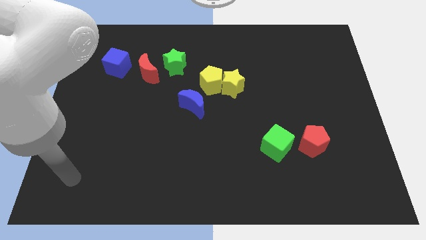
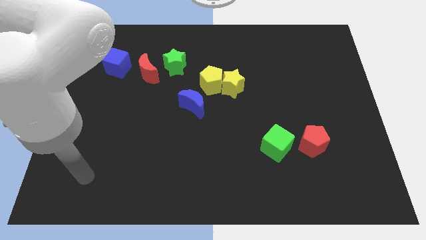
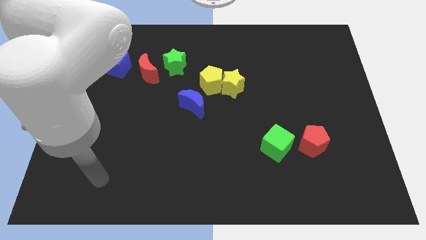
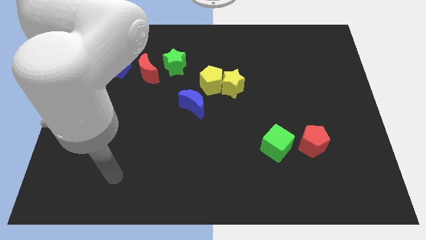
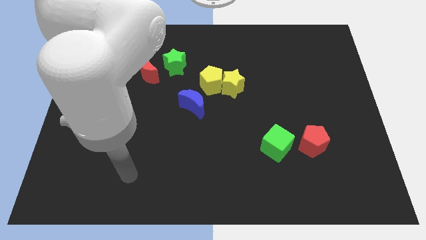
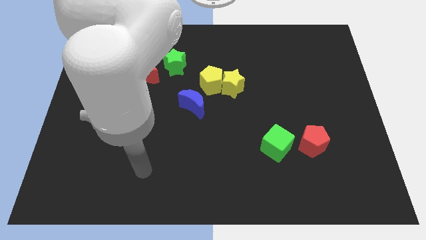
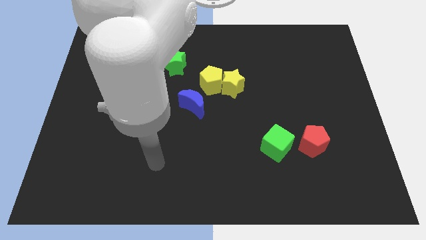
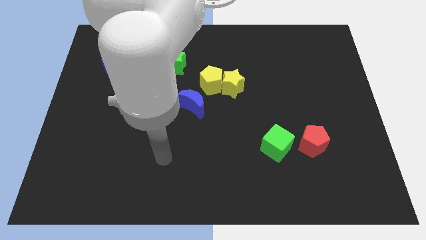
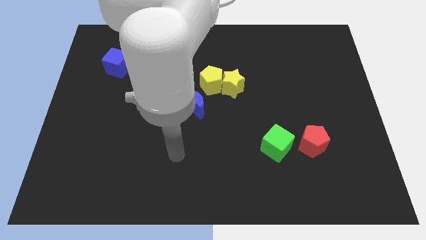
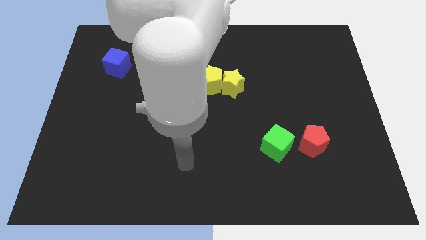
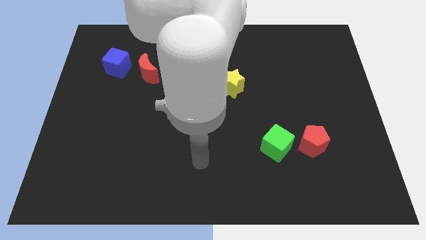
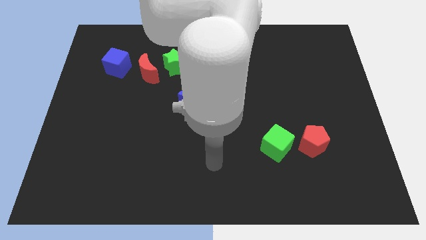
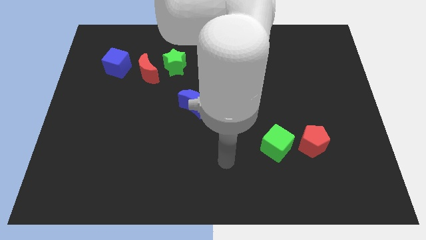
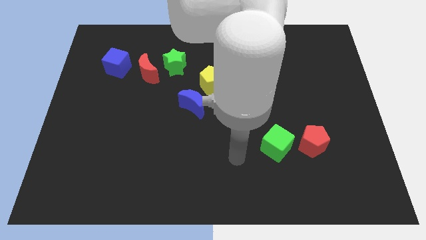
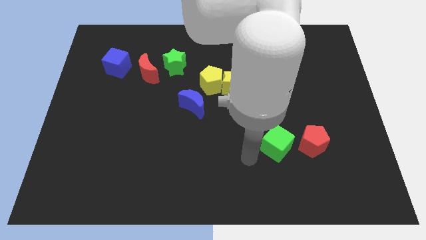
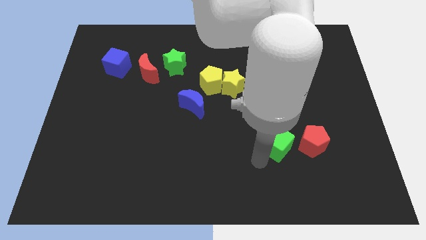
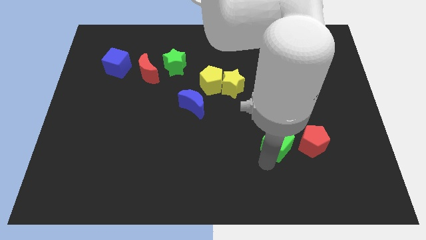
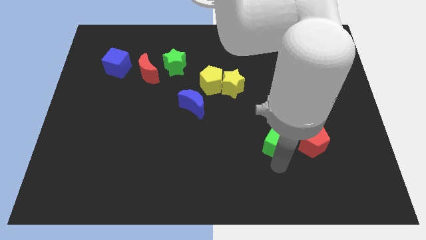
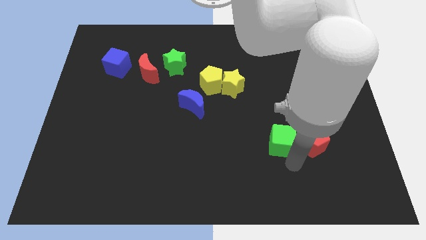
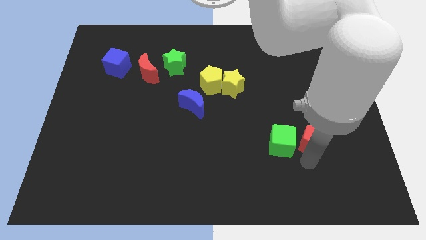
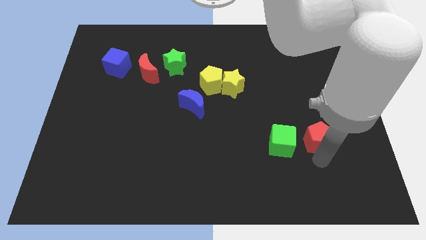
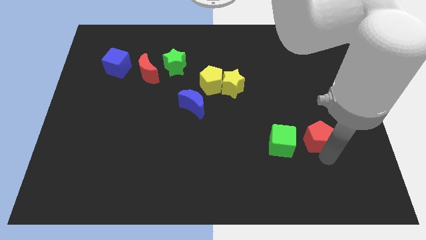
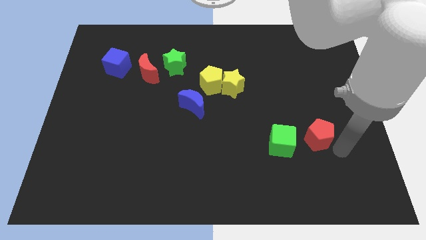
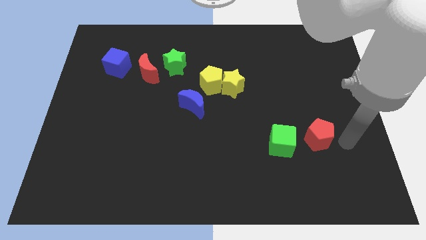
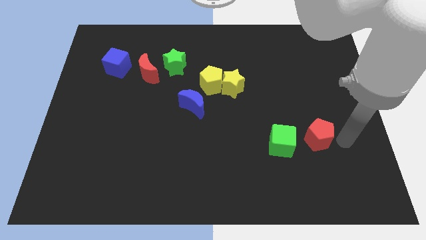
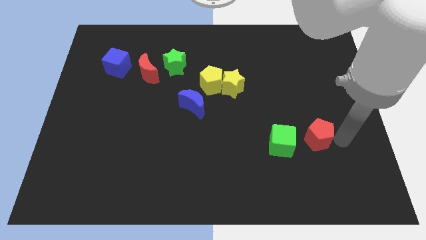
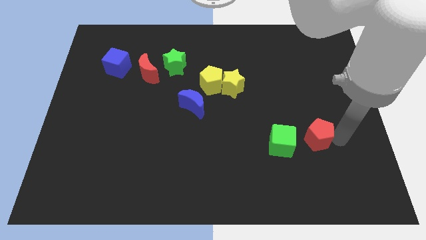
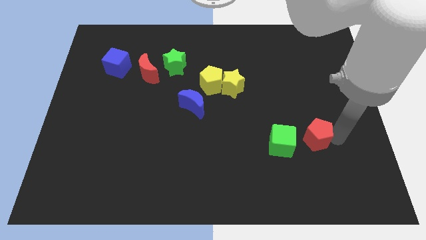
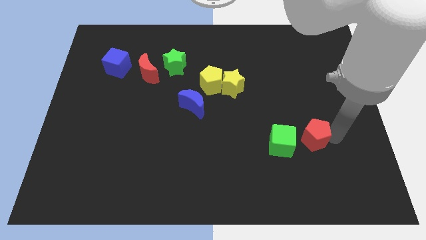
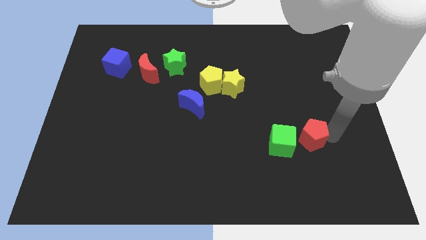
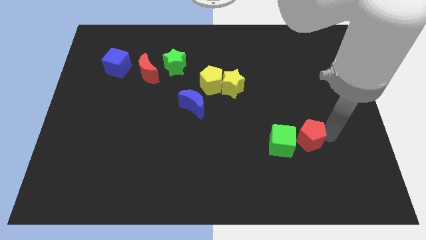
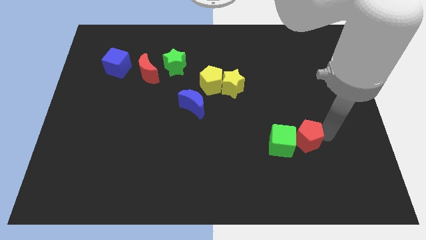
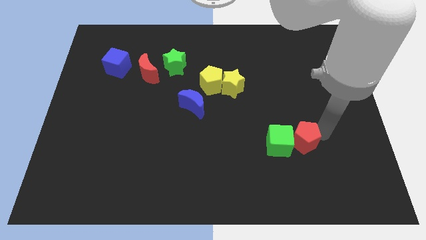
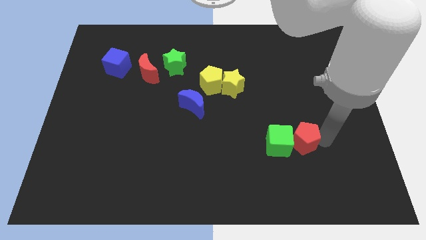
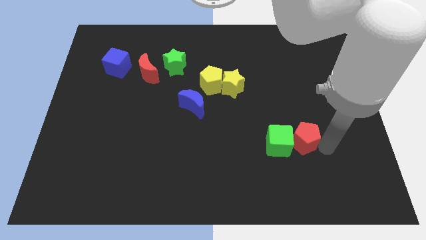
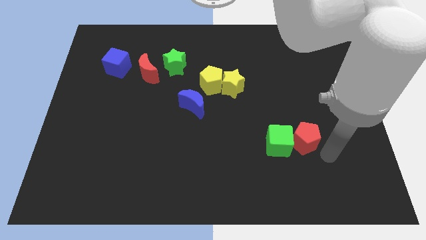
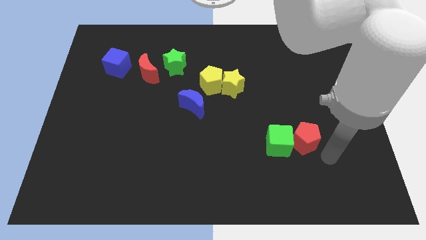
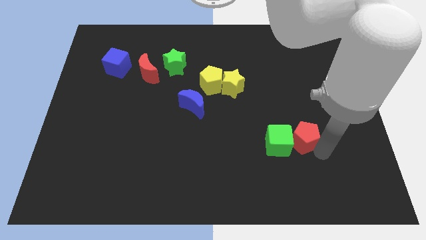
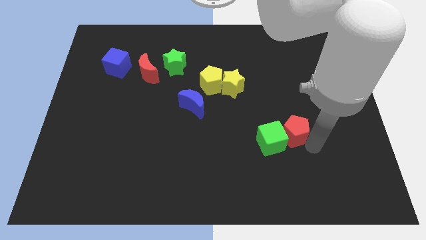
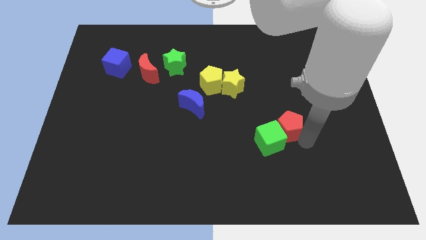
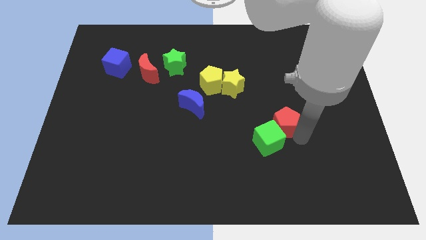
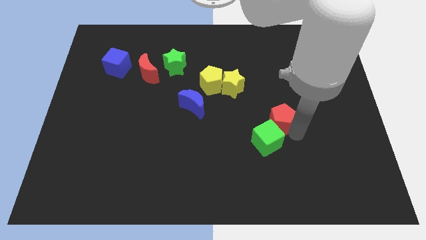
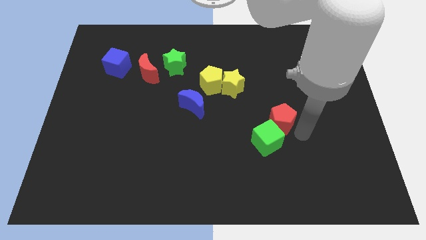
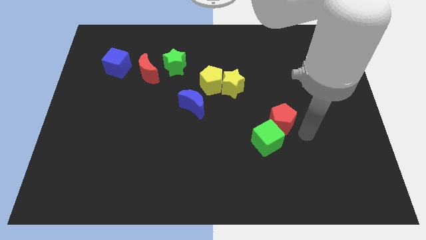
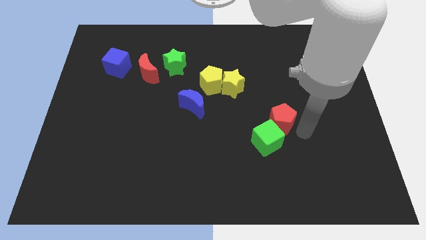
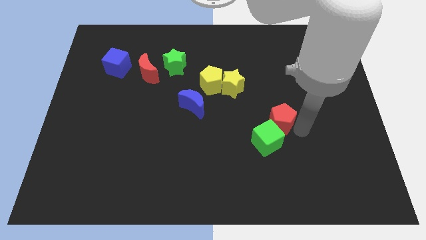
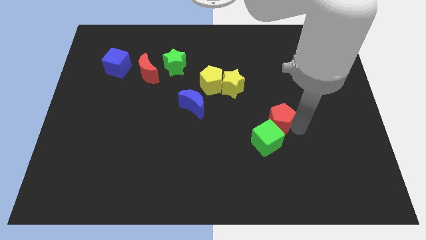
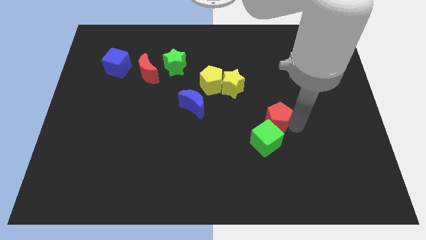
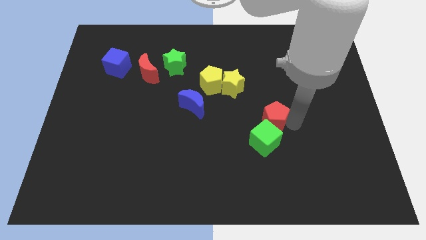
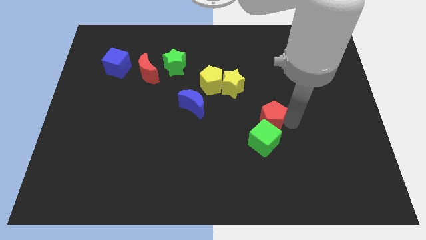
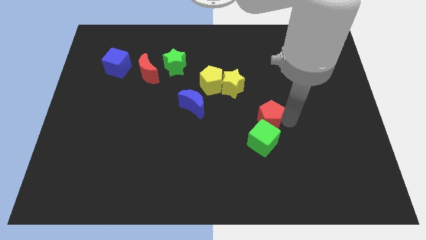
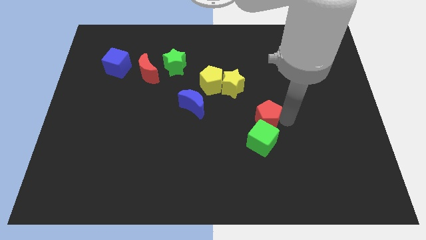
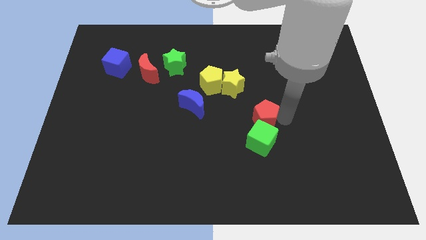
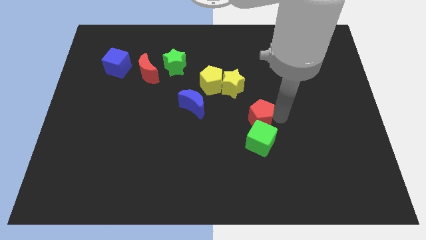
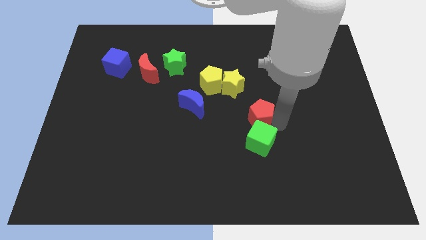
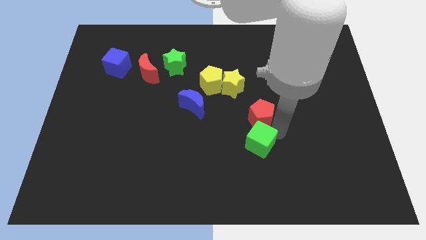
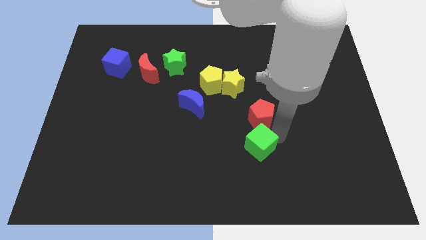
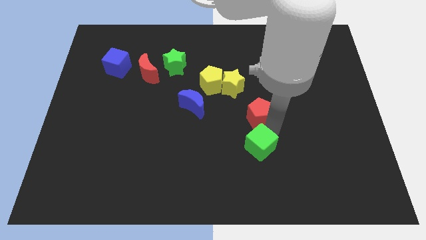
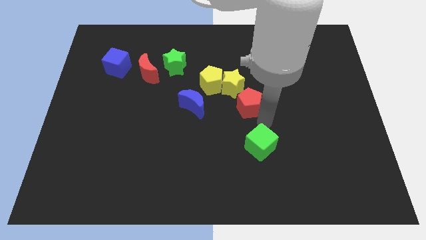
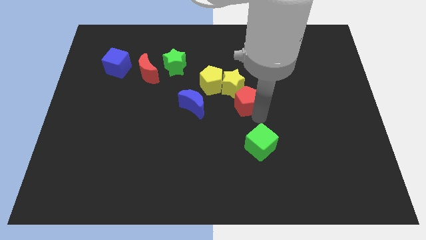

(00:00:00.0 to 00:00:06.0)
push the red pentagon close to the yellow star

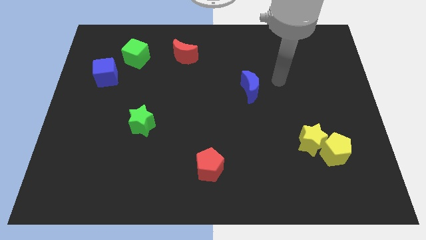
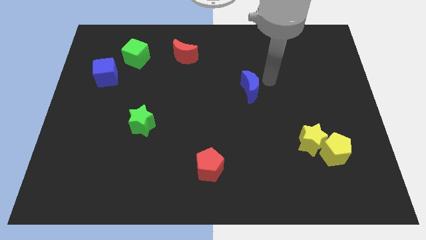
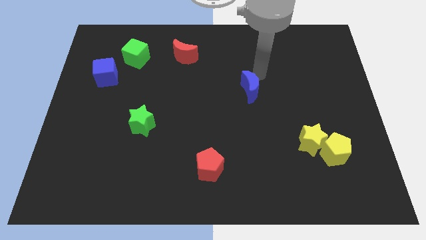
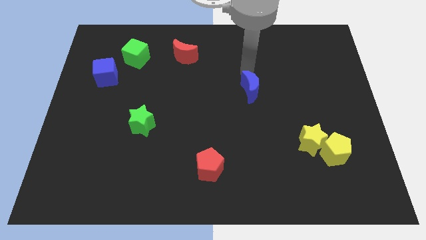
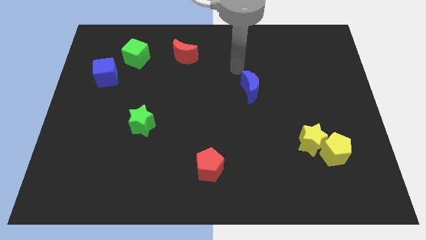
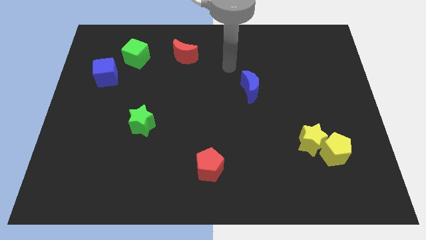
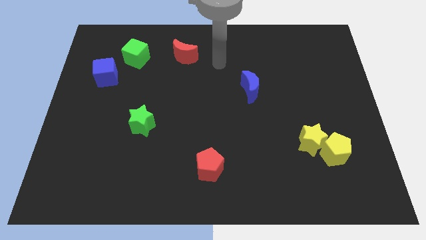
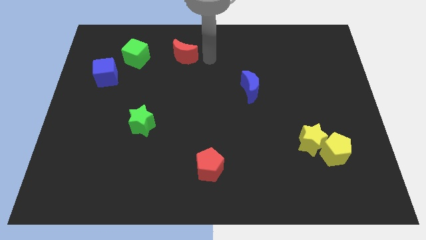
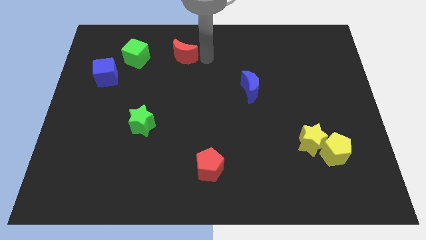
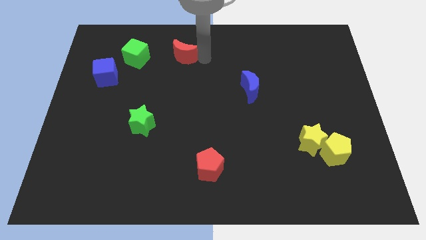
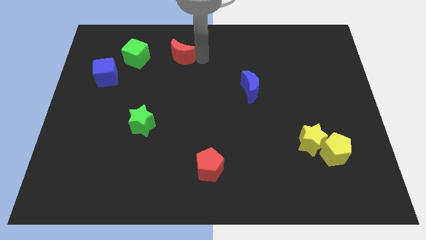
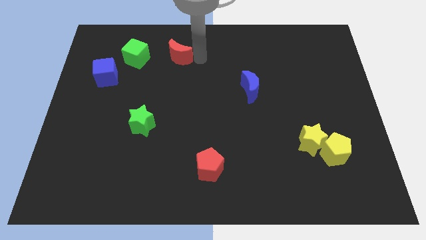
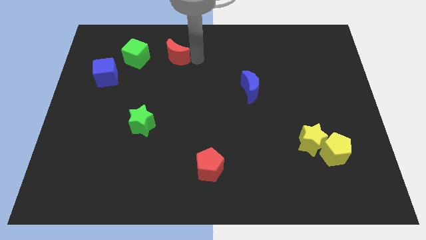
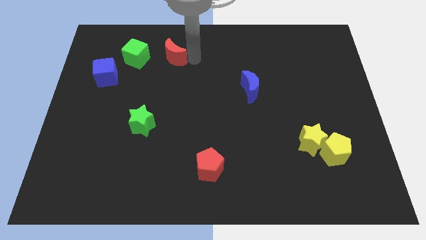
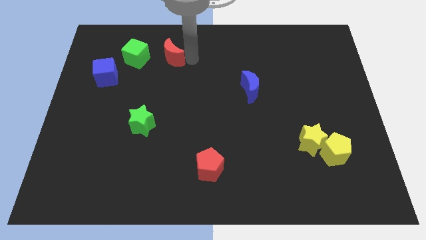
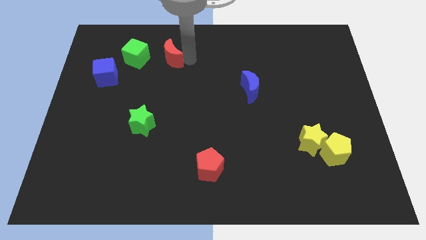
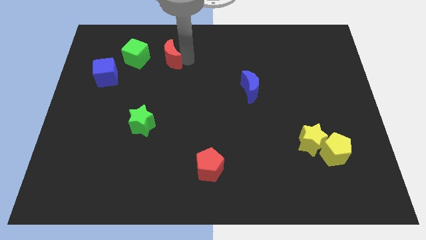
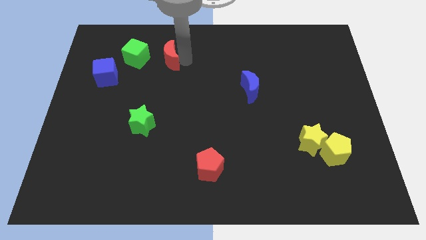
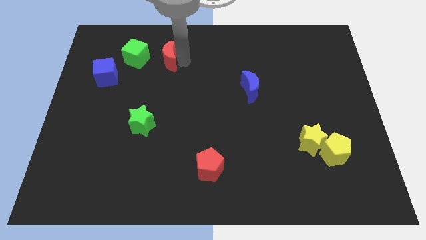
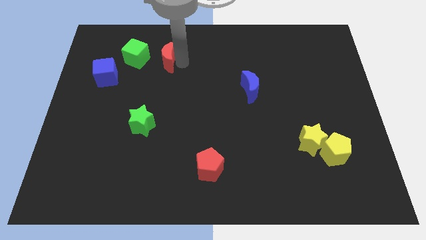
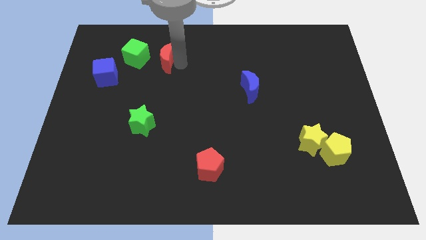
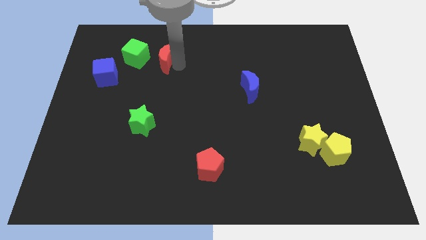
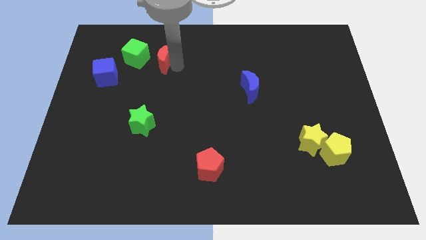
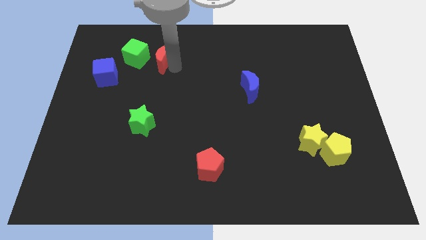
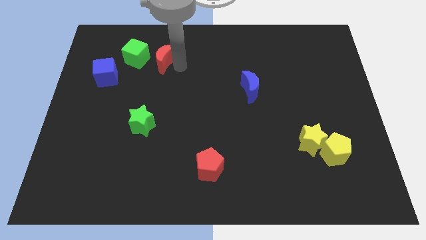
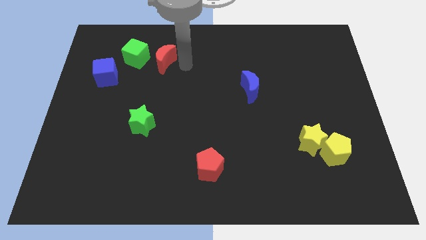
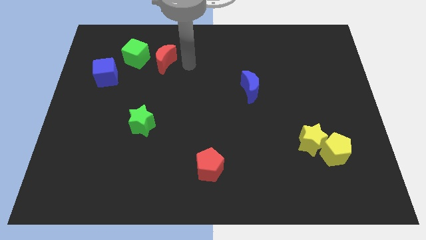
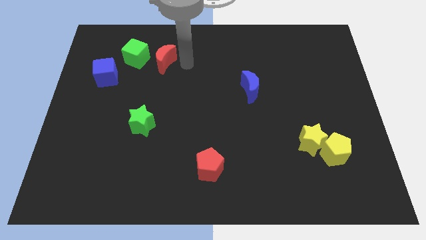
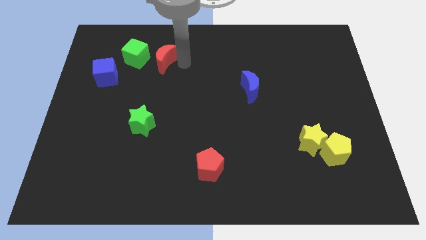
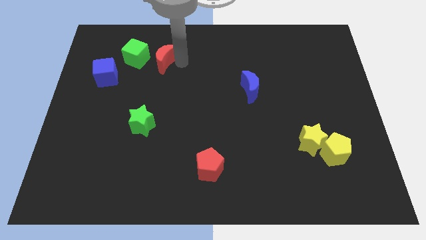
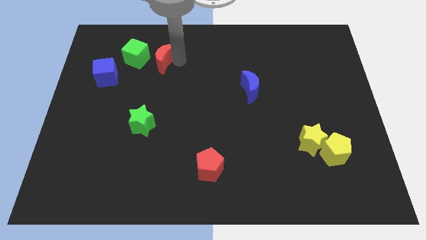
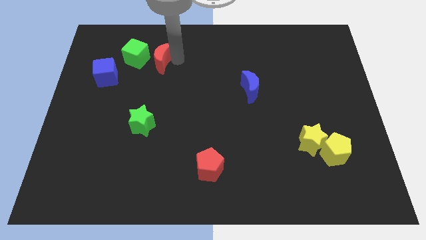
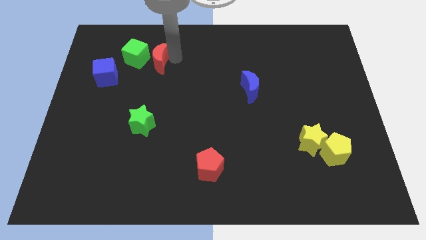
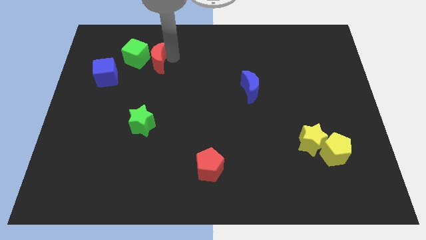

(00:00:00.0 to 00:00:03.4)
push the red moon to the green cube
